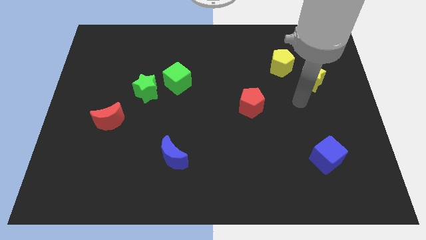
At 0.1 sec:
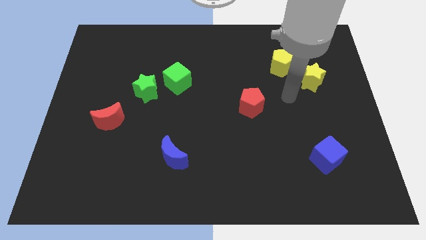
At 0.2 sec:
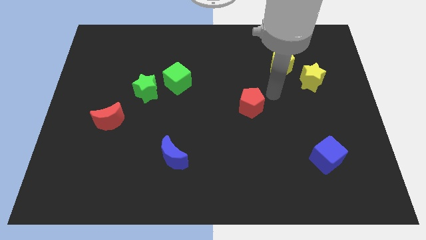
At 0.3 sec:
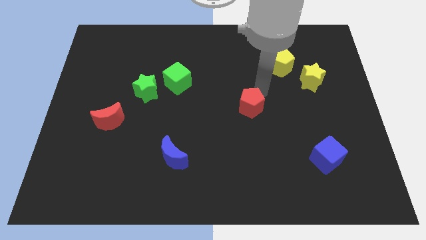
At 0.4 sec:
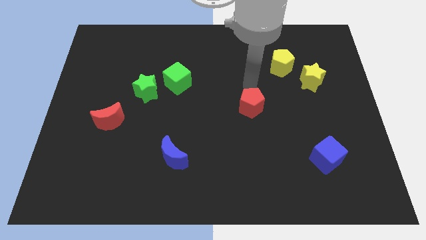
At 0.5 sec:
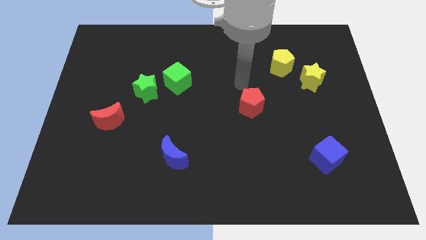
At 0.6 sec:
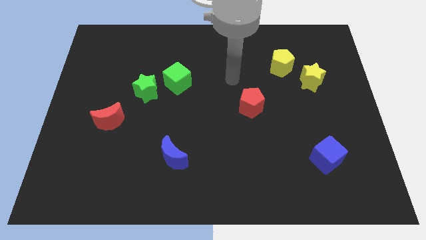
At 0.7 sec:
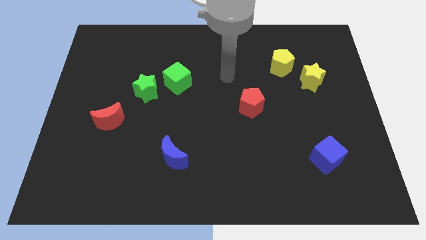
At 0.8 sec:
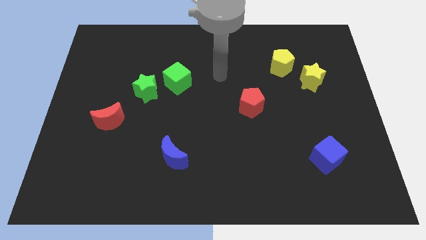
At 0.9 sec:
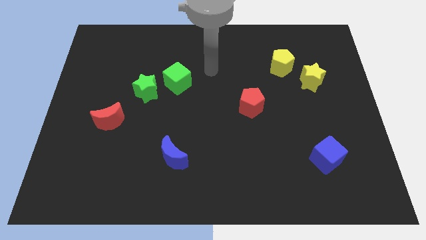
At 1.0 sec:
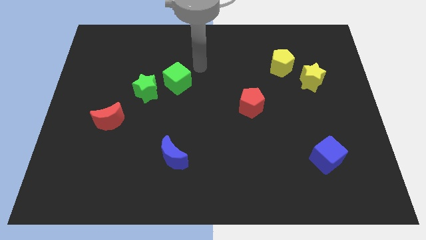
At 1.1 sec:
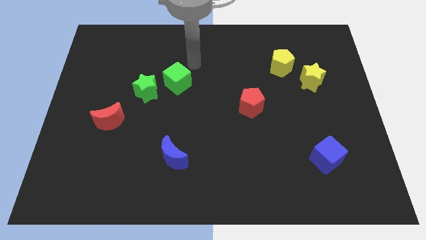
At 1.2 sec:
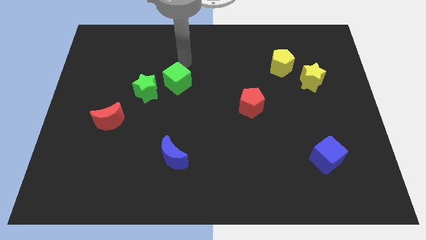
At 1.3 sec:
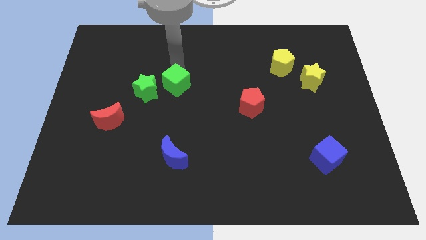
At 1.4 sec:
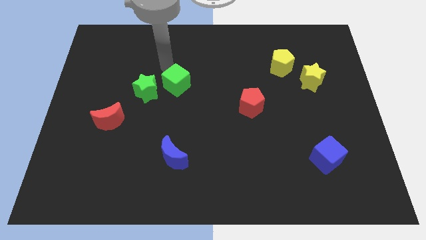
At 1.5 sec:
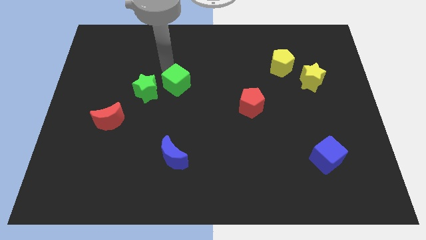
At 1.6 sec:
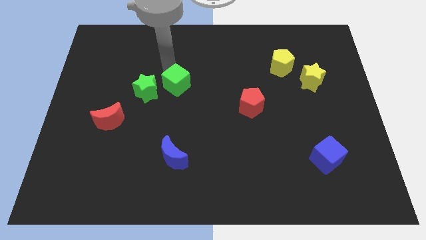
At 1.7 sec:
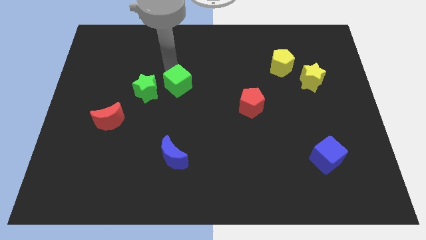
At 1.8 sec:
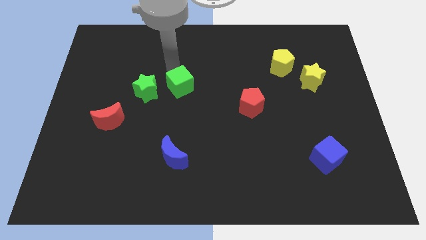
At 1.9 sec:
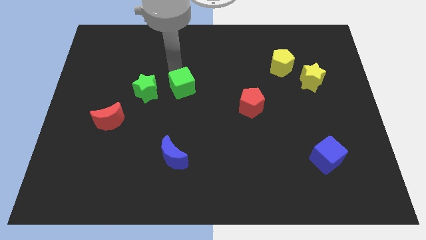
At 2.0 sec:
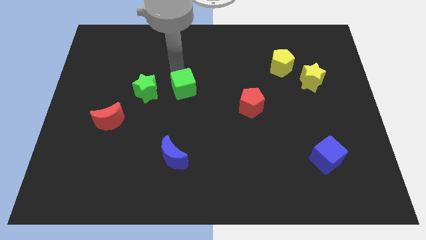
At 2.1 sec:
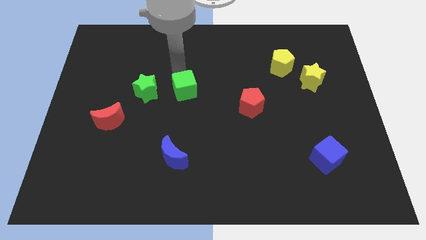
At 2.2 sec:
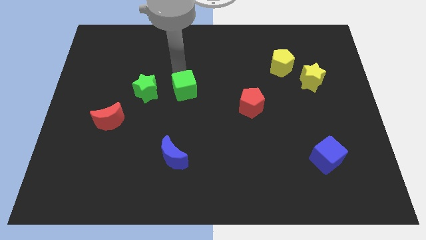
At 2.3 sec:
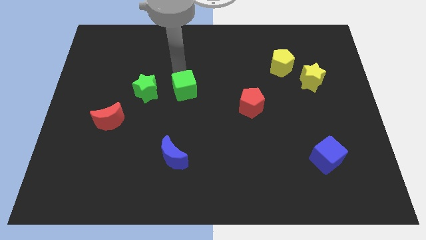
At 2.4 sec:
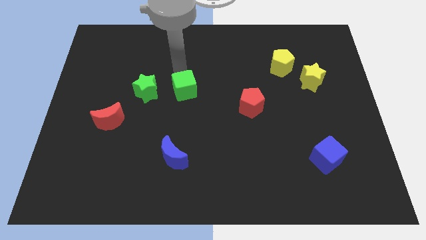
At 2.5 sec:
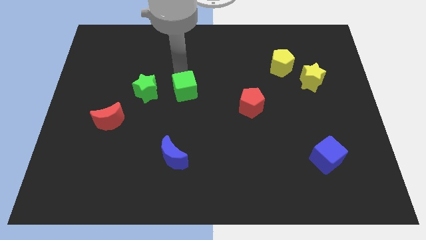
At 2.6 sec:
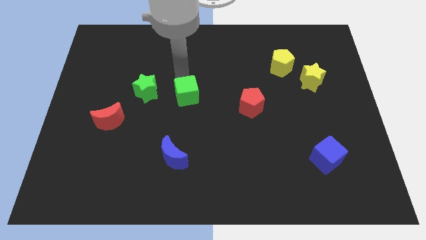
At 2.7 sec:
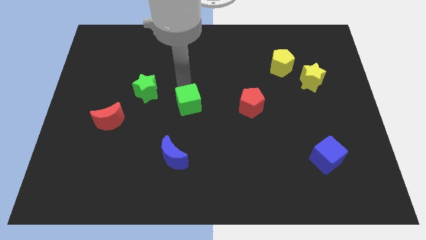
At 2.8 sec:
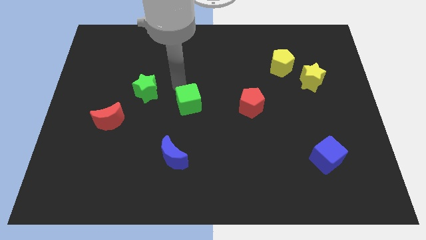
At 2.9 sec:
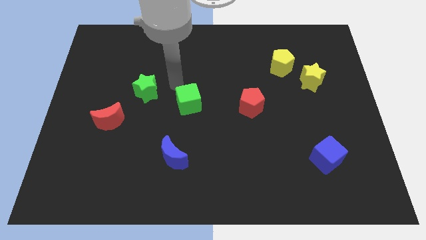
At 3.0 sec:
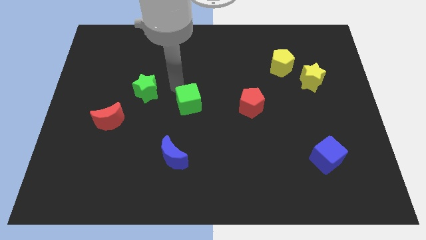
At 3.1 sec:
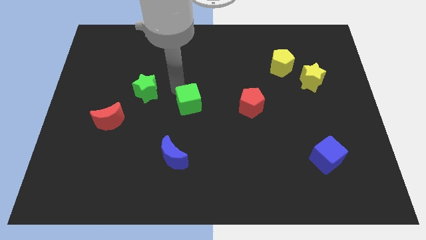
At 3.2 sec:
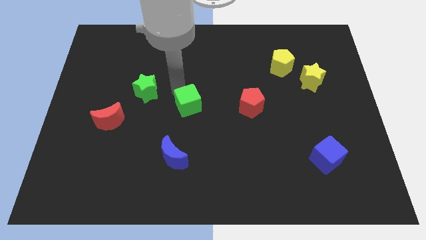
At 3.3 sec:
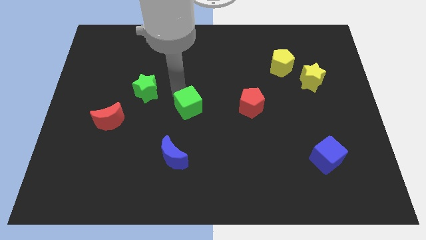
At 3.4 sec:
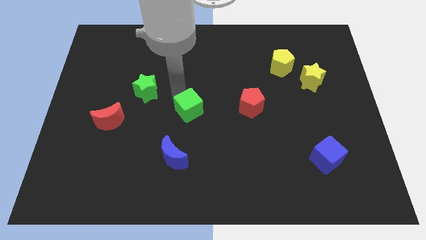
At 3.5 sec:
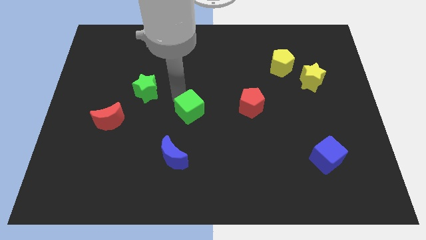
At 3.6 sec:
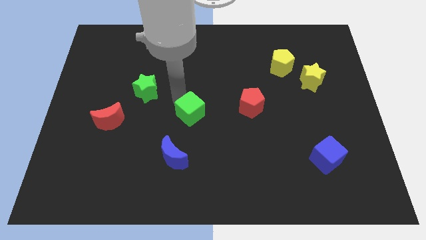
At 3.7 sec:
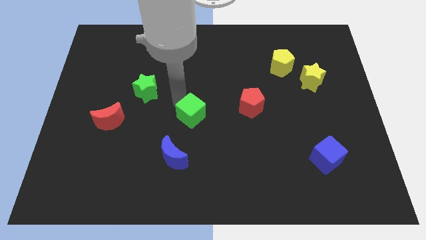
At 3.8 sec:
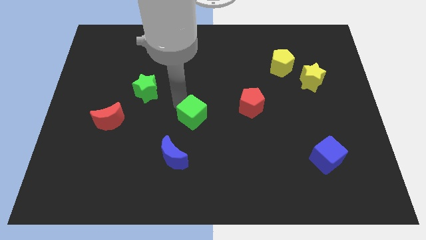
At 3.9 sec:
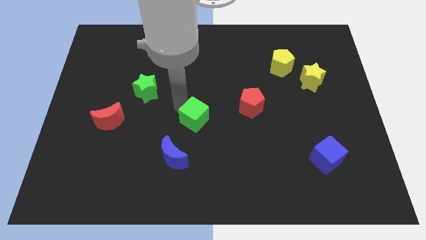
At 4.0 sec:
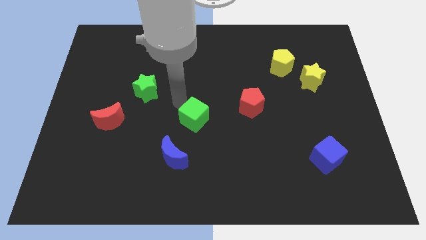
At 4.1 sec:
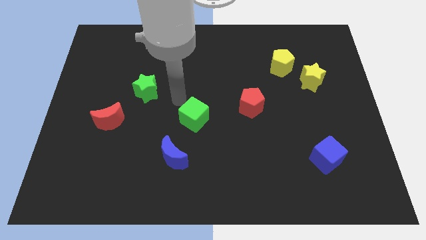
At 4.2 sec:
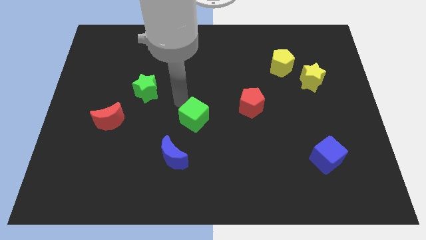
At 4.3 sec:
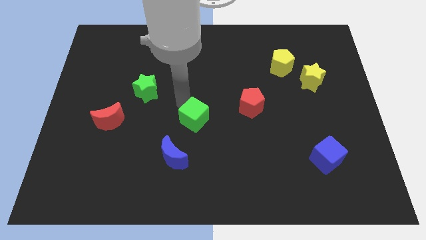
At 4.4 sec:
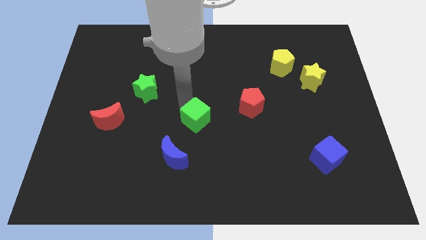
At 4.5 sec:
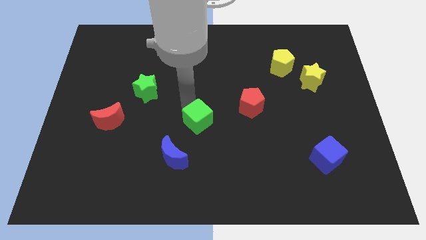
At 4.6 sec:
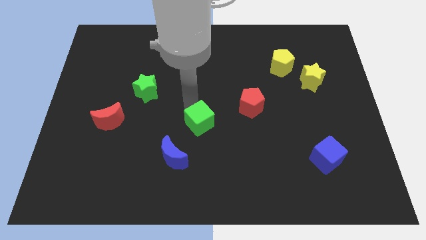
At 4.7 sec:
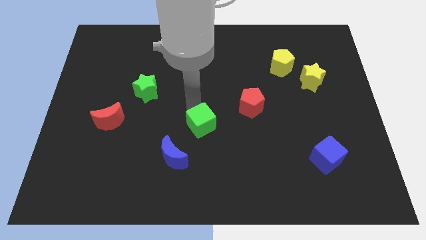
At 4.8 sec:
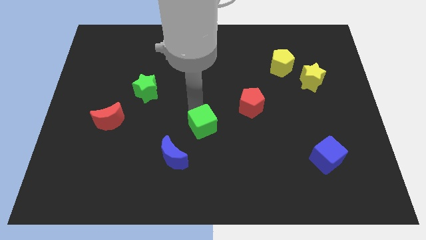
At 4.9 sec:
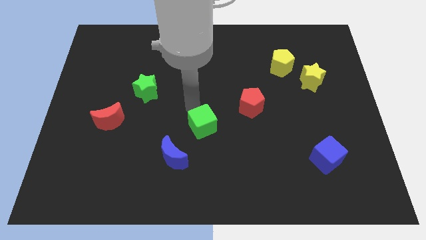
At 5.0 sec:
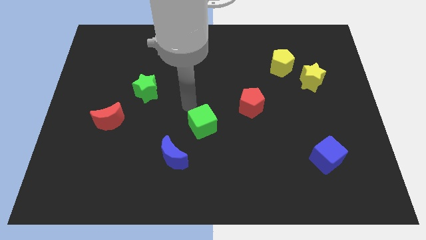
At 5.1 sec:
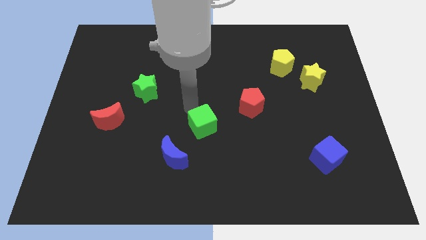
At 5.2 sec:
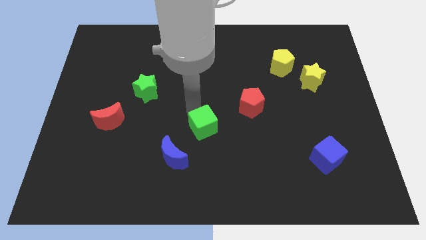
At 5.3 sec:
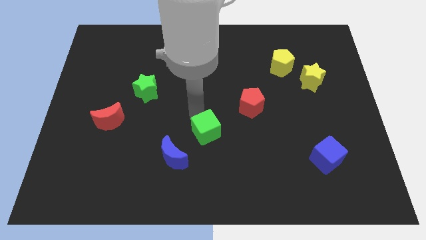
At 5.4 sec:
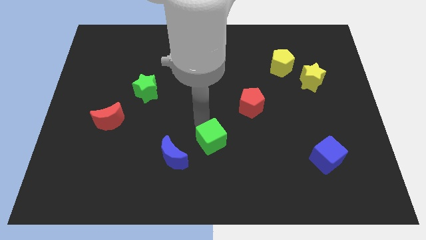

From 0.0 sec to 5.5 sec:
move the green cube to the right of the blue moon
